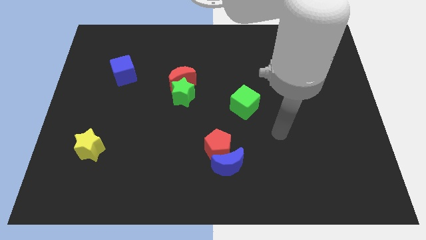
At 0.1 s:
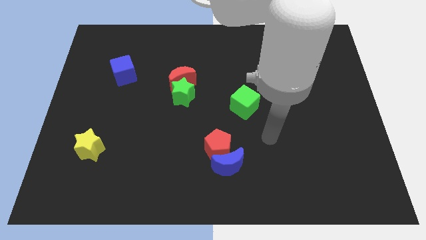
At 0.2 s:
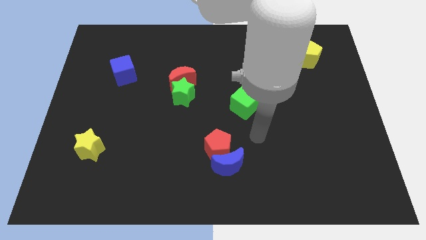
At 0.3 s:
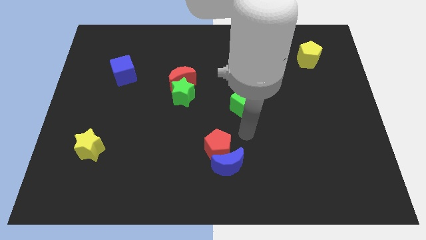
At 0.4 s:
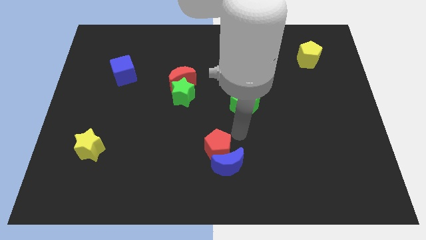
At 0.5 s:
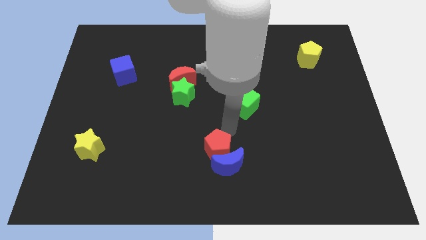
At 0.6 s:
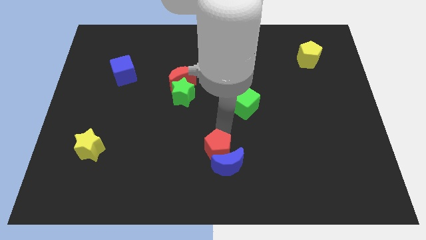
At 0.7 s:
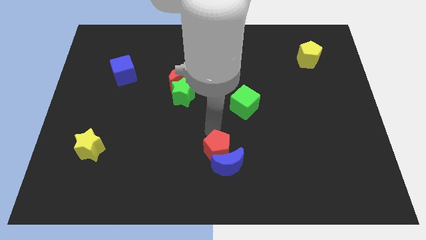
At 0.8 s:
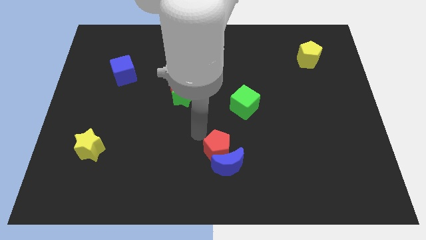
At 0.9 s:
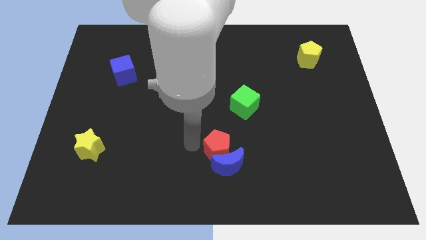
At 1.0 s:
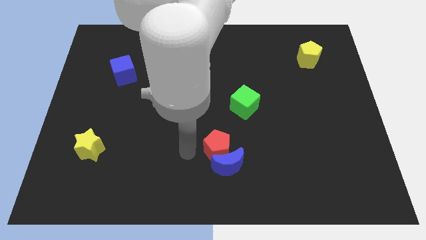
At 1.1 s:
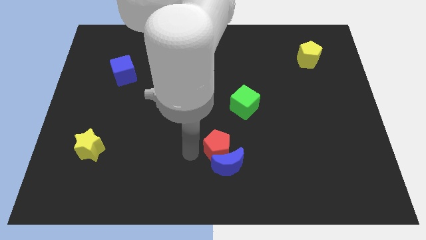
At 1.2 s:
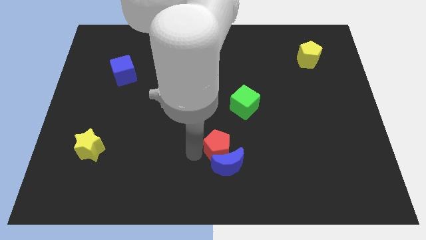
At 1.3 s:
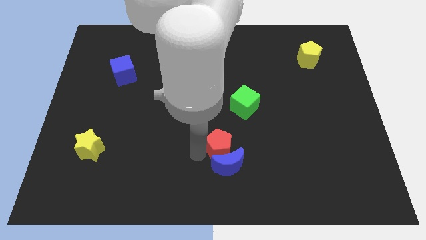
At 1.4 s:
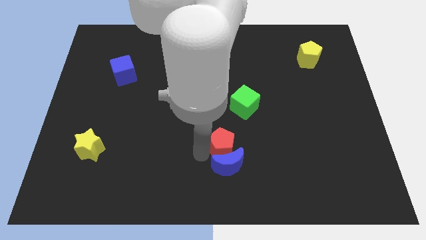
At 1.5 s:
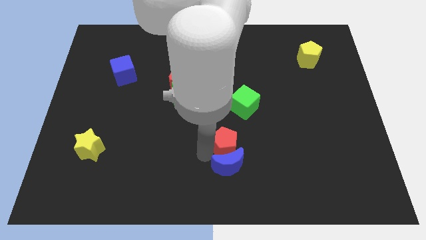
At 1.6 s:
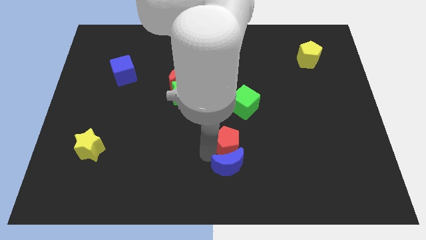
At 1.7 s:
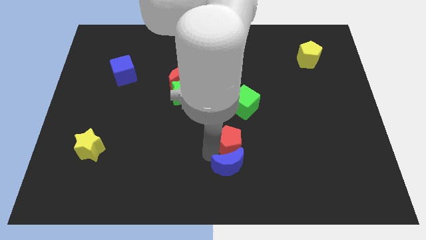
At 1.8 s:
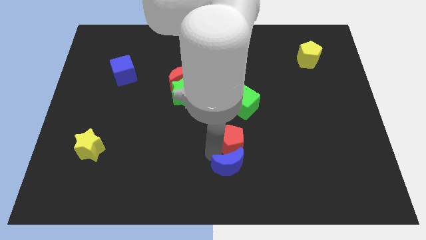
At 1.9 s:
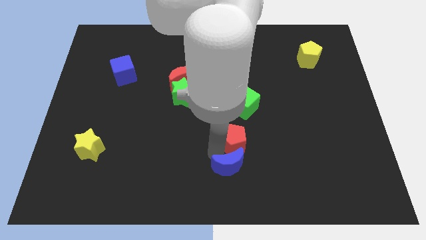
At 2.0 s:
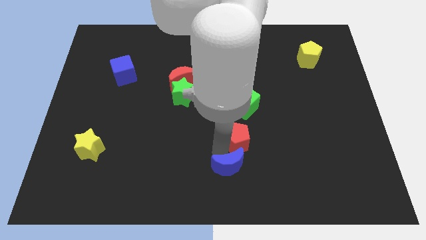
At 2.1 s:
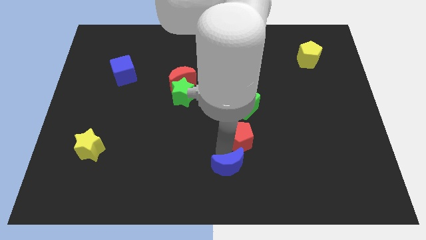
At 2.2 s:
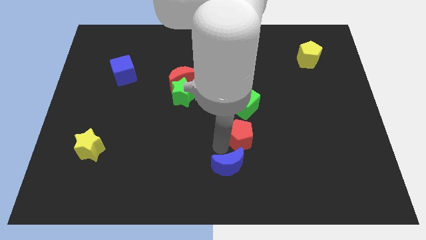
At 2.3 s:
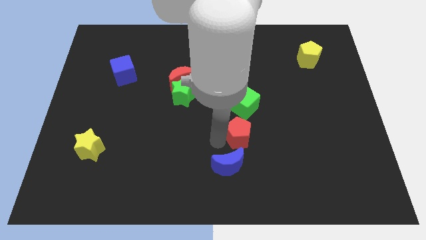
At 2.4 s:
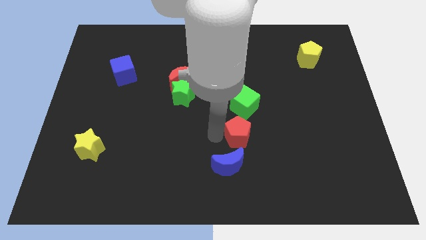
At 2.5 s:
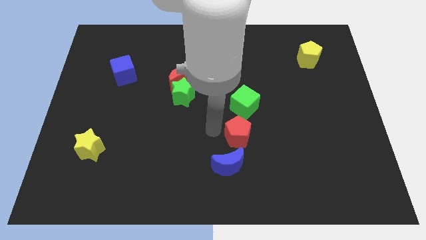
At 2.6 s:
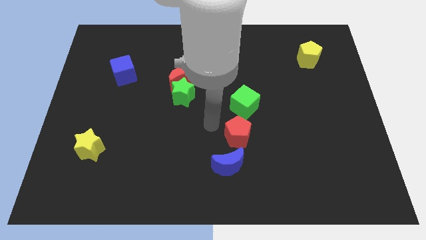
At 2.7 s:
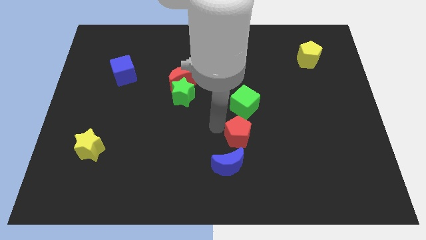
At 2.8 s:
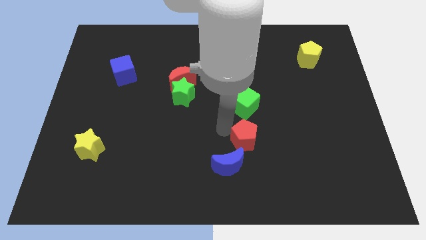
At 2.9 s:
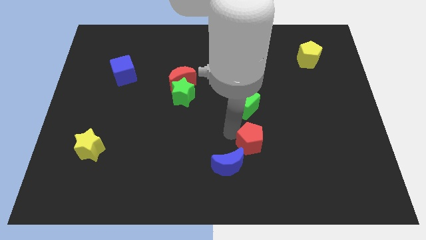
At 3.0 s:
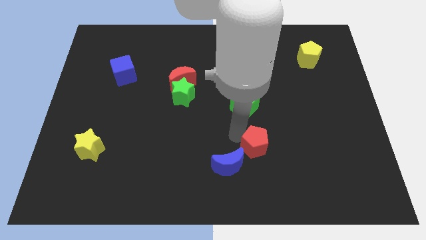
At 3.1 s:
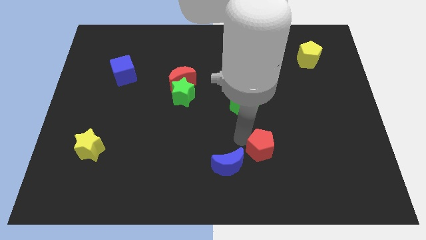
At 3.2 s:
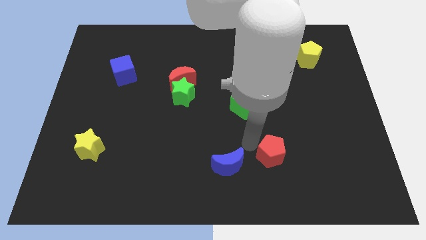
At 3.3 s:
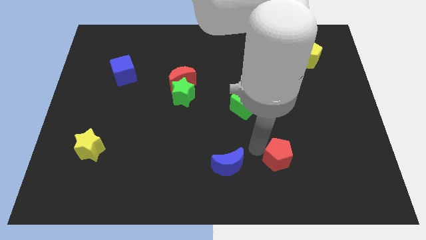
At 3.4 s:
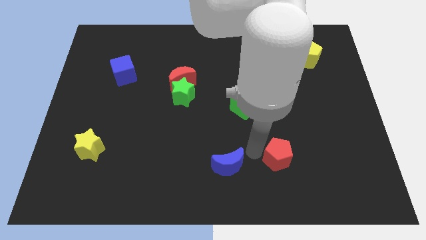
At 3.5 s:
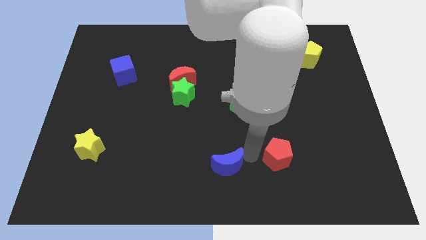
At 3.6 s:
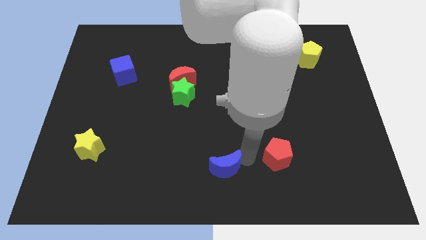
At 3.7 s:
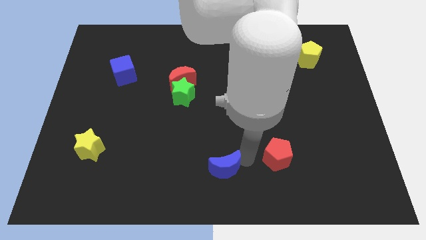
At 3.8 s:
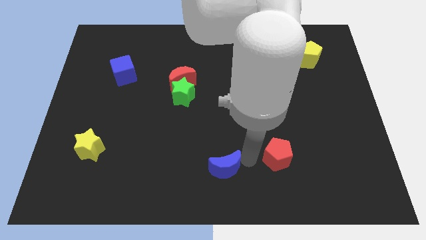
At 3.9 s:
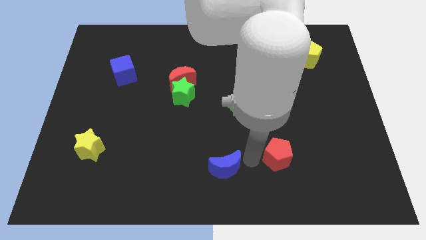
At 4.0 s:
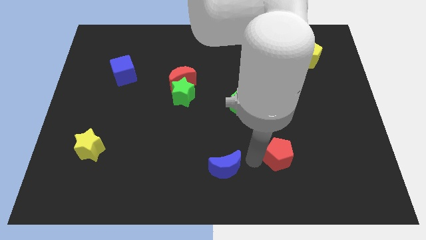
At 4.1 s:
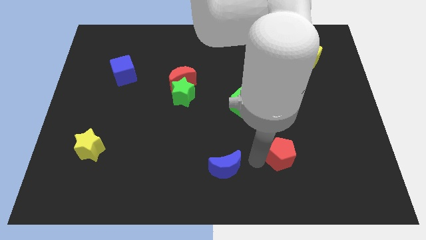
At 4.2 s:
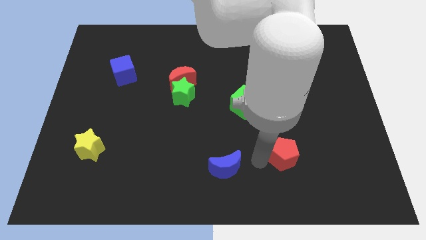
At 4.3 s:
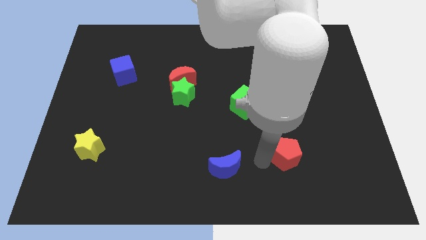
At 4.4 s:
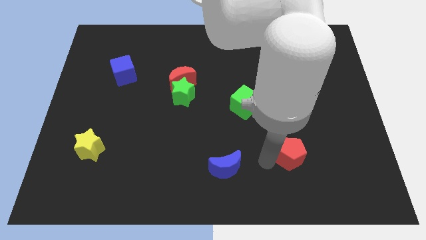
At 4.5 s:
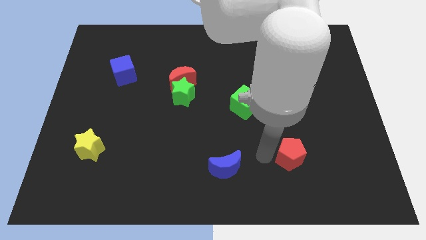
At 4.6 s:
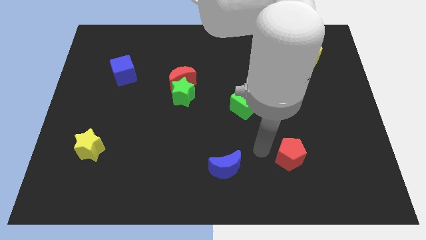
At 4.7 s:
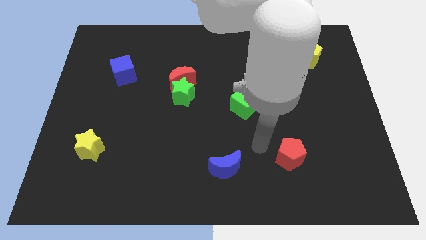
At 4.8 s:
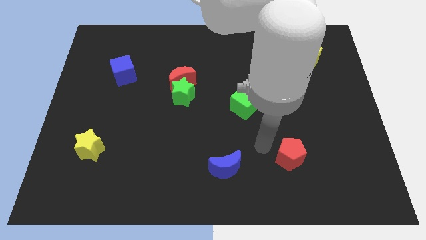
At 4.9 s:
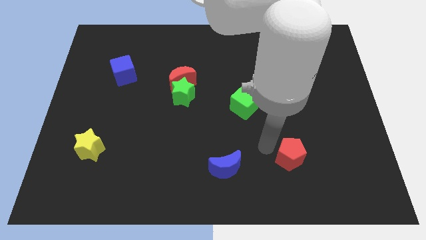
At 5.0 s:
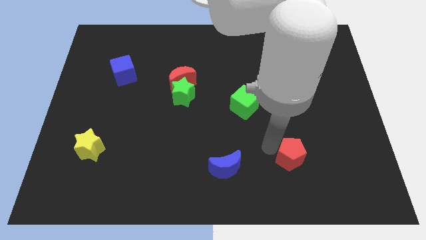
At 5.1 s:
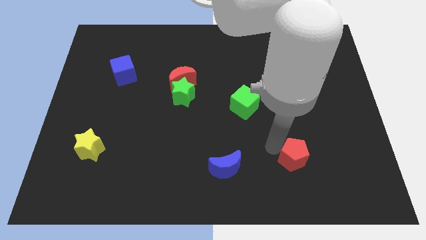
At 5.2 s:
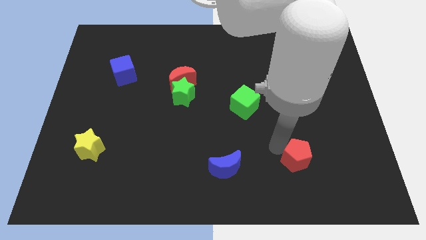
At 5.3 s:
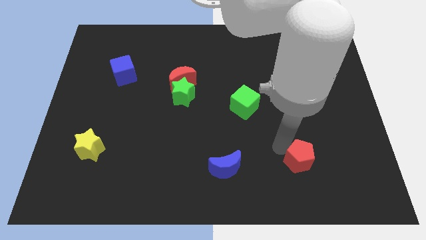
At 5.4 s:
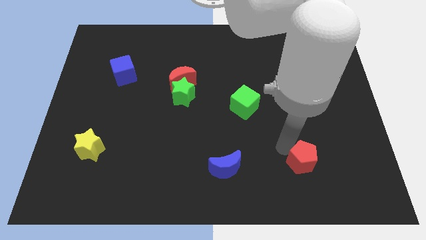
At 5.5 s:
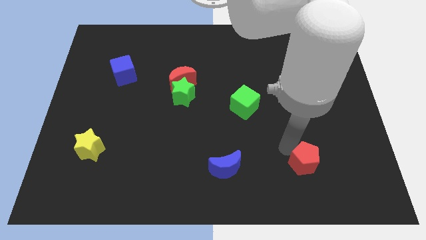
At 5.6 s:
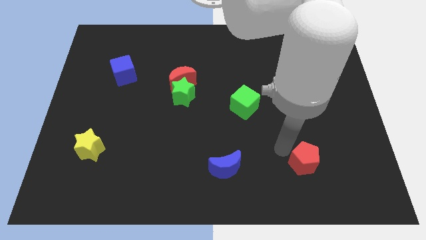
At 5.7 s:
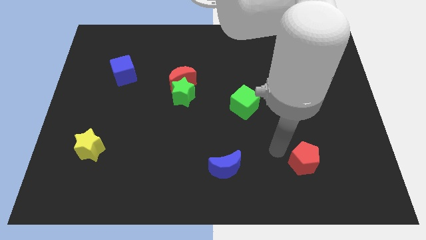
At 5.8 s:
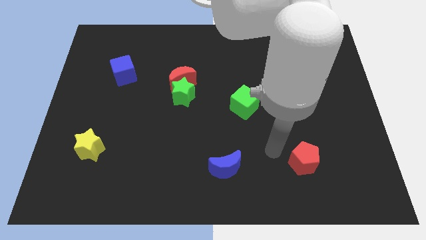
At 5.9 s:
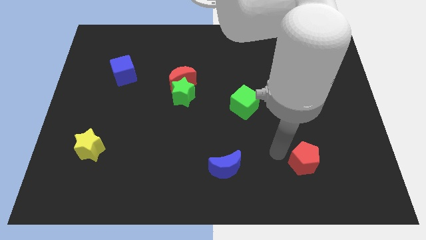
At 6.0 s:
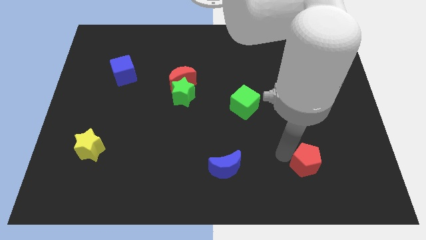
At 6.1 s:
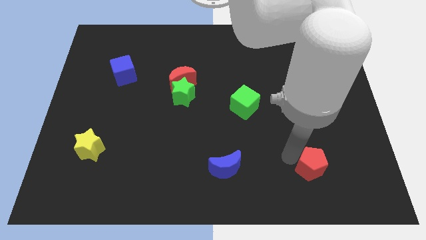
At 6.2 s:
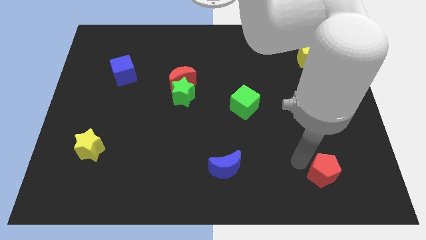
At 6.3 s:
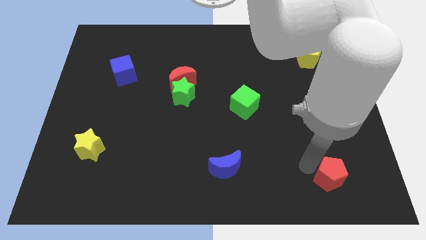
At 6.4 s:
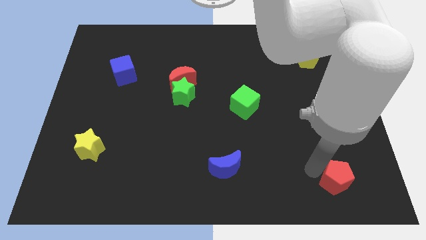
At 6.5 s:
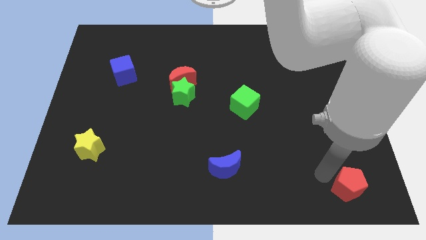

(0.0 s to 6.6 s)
put the red pentagon to the lower right corner
